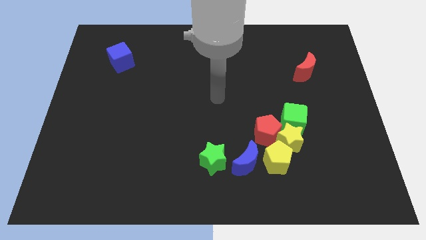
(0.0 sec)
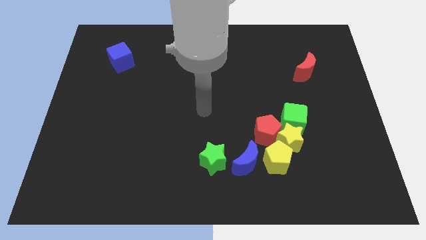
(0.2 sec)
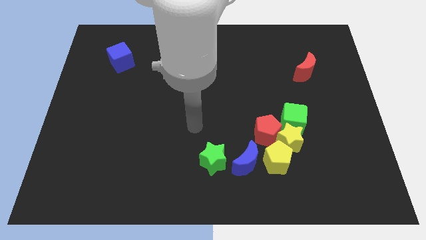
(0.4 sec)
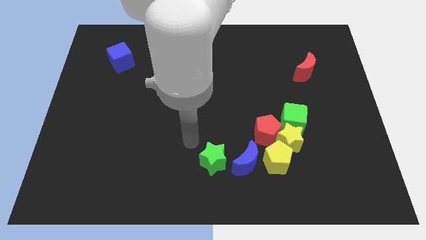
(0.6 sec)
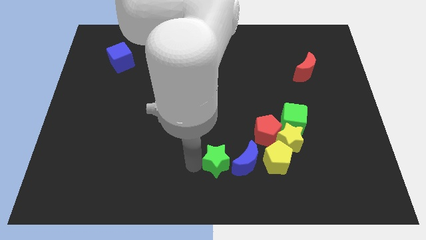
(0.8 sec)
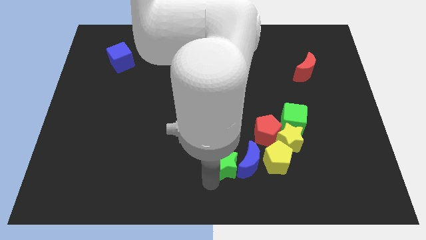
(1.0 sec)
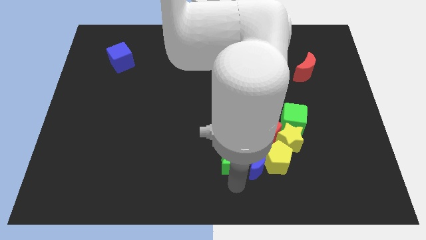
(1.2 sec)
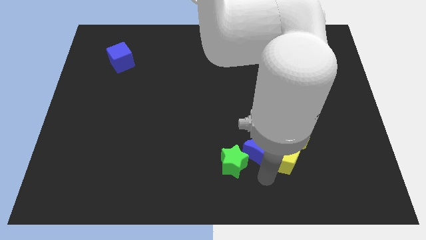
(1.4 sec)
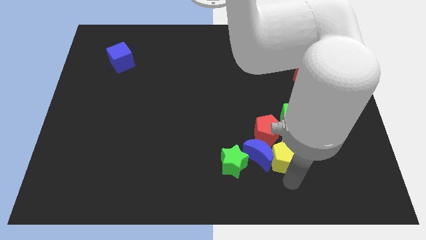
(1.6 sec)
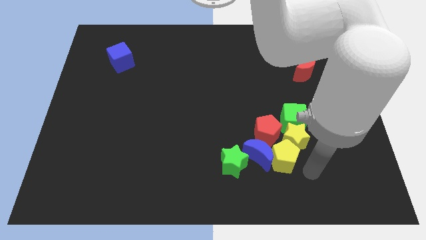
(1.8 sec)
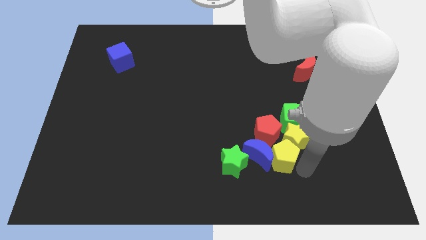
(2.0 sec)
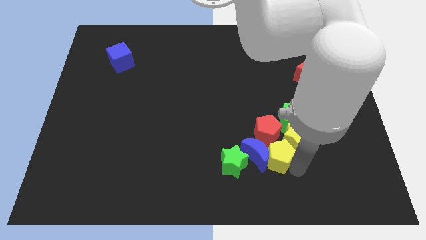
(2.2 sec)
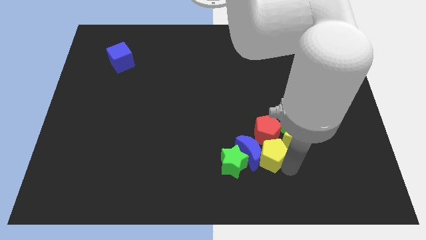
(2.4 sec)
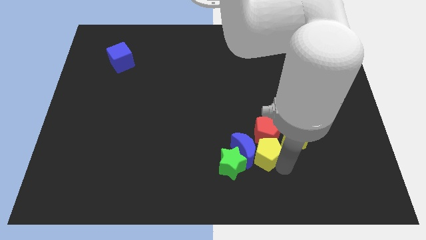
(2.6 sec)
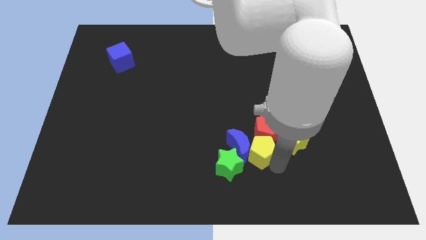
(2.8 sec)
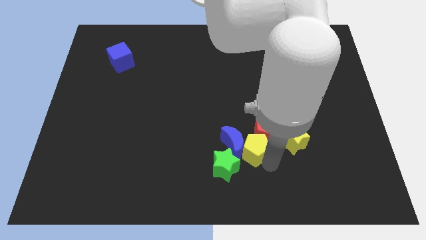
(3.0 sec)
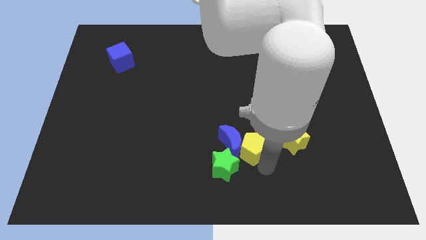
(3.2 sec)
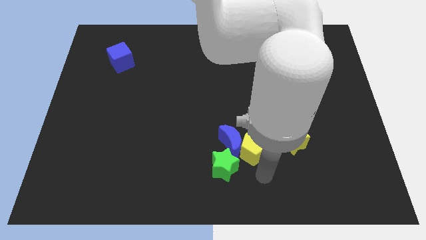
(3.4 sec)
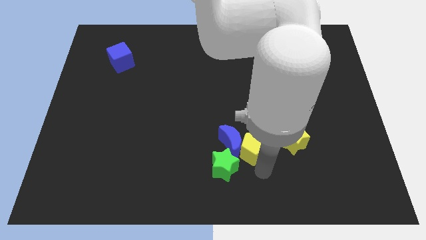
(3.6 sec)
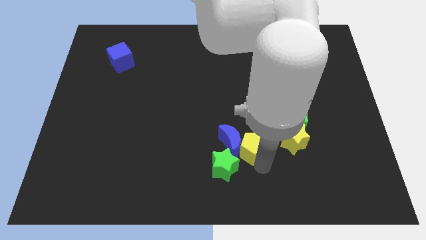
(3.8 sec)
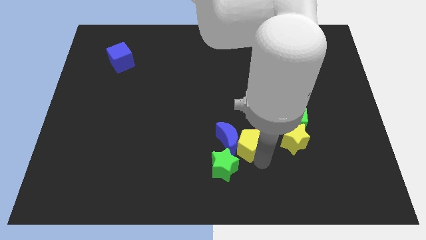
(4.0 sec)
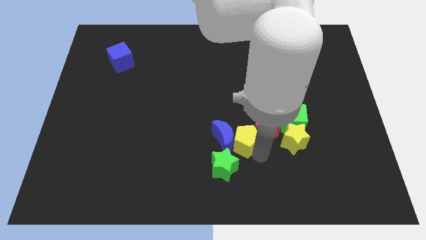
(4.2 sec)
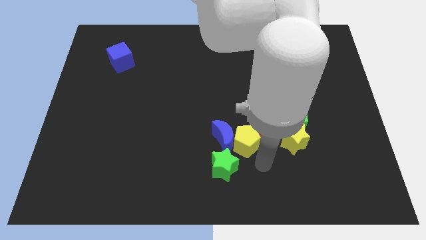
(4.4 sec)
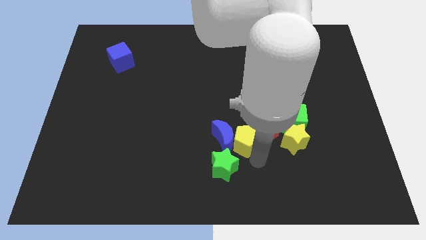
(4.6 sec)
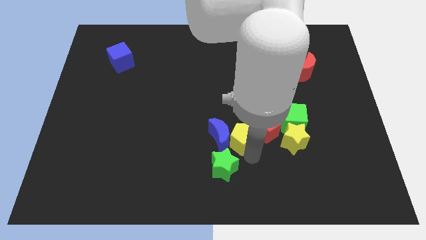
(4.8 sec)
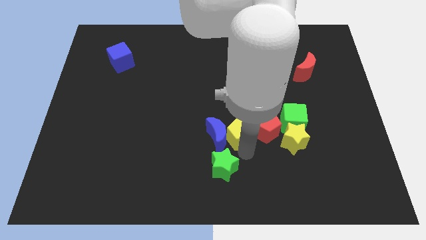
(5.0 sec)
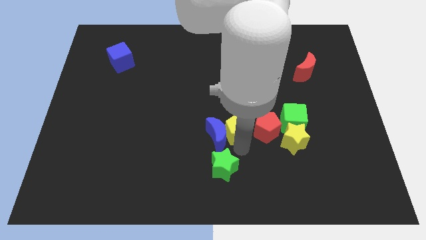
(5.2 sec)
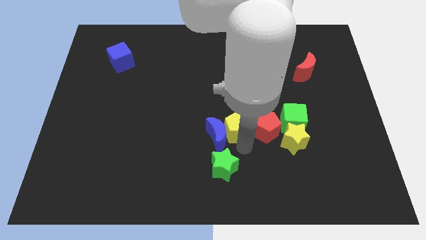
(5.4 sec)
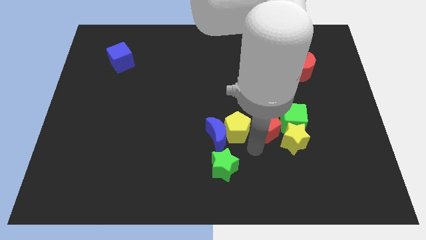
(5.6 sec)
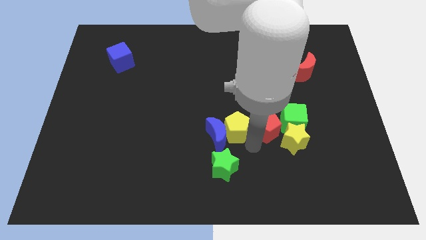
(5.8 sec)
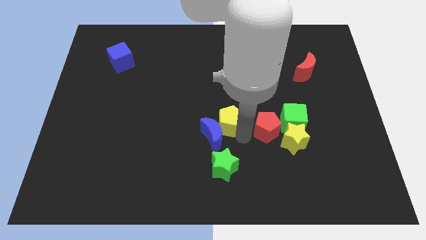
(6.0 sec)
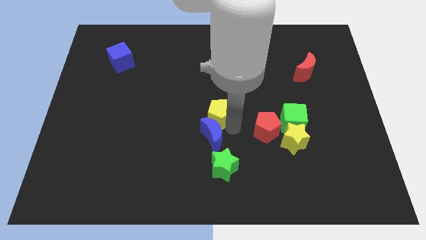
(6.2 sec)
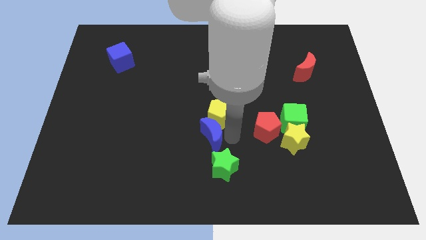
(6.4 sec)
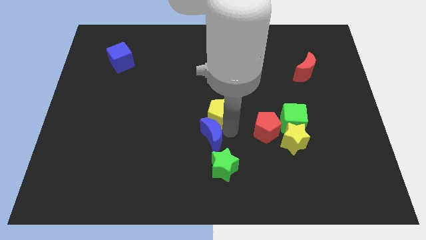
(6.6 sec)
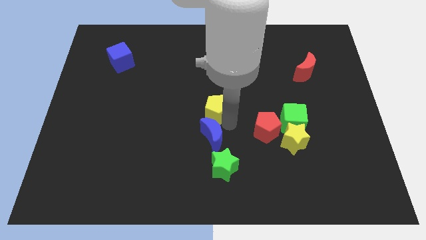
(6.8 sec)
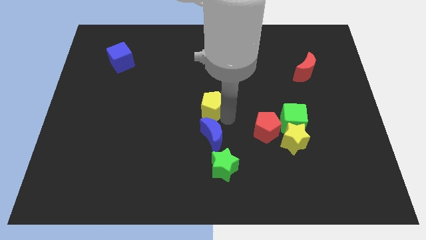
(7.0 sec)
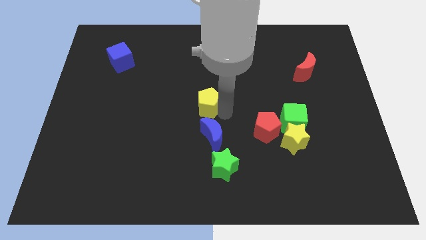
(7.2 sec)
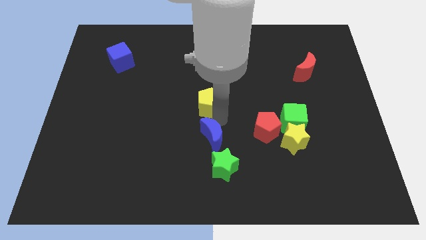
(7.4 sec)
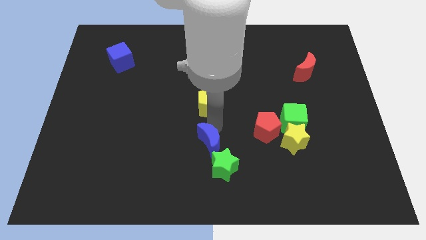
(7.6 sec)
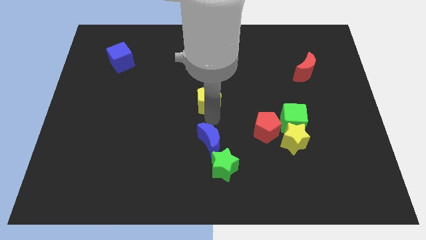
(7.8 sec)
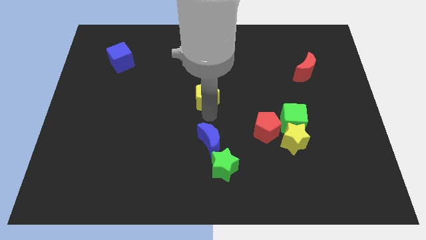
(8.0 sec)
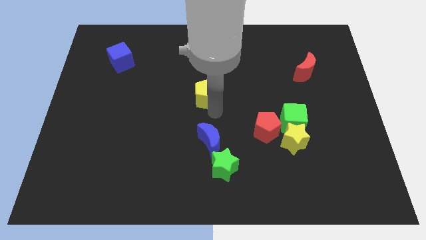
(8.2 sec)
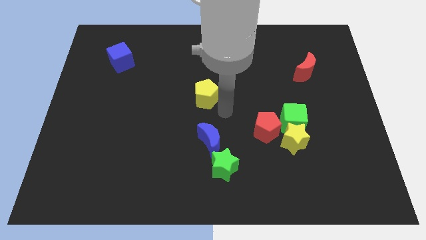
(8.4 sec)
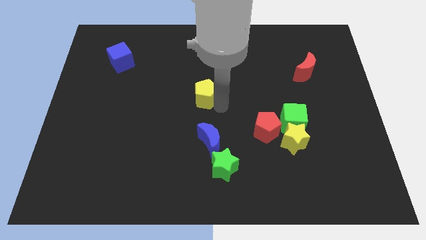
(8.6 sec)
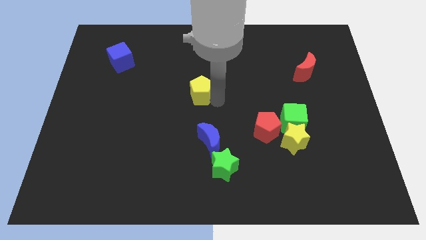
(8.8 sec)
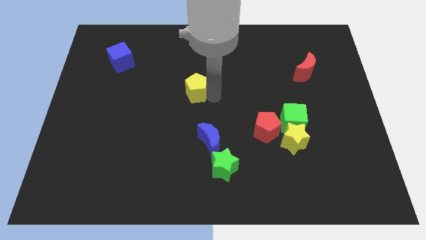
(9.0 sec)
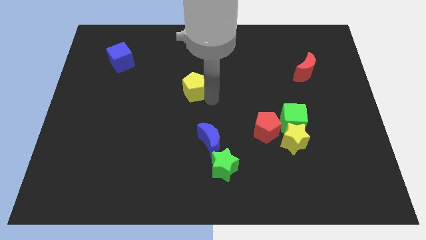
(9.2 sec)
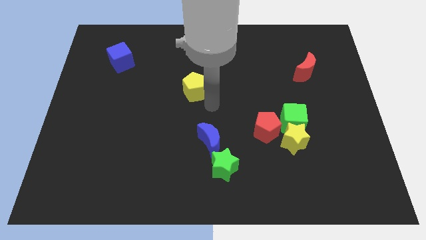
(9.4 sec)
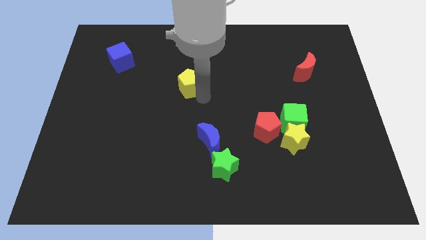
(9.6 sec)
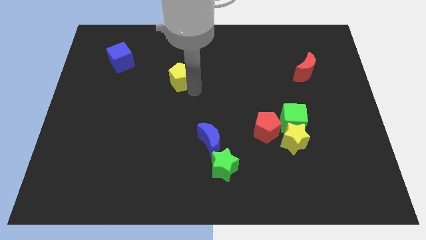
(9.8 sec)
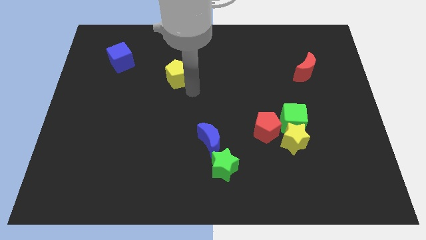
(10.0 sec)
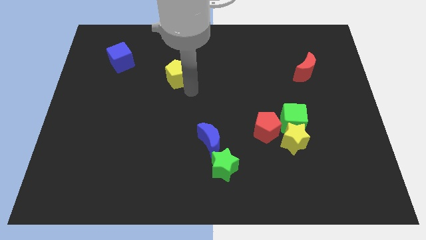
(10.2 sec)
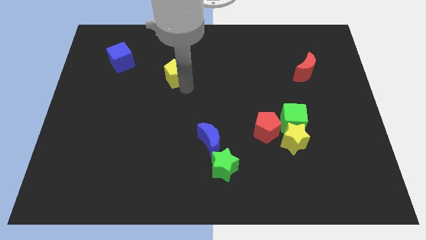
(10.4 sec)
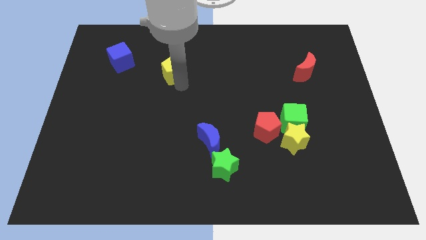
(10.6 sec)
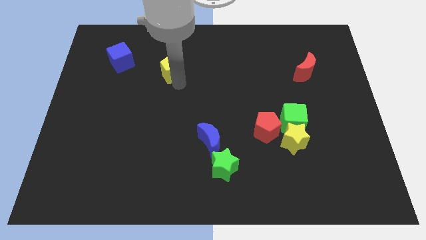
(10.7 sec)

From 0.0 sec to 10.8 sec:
slide the yellow pentagon to the right of the blue cube

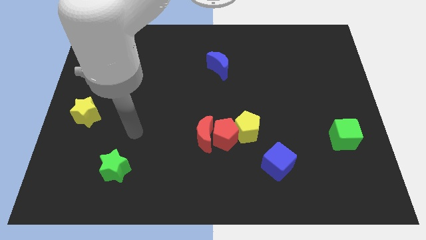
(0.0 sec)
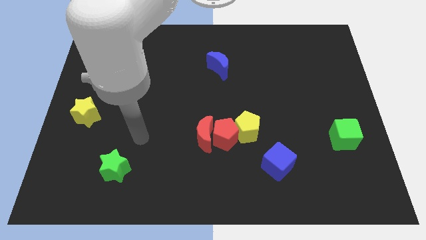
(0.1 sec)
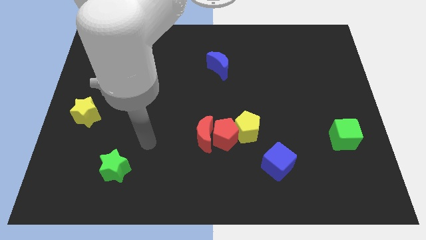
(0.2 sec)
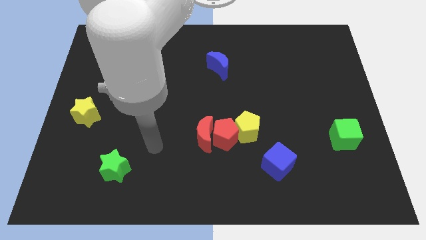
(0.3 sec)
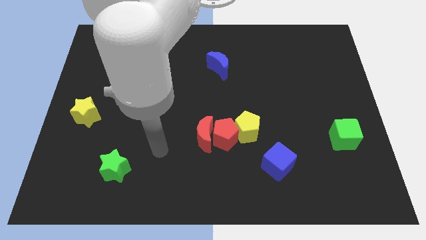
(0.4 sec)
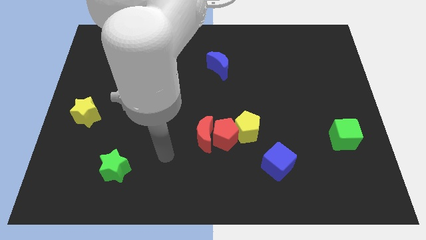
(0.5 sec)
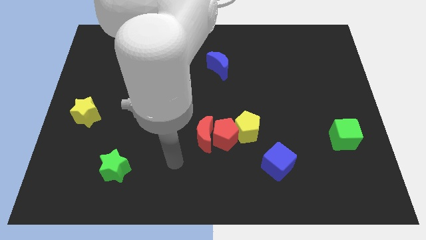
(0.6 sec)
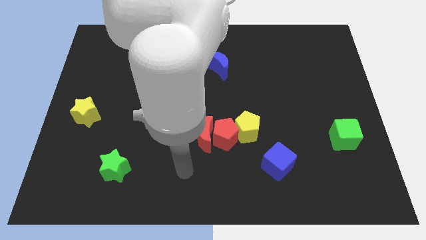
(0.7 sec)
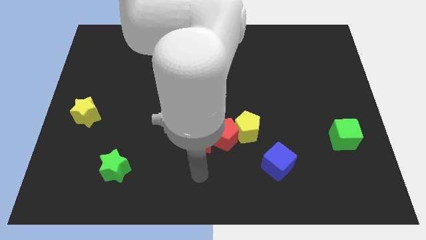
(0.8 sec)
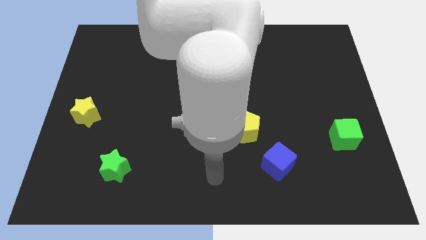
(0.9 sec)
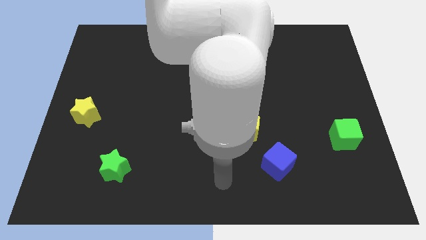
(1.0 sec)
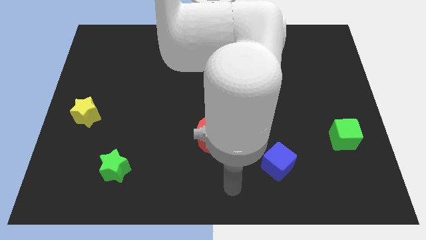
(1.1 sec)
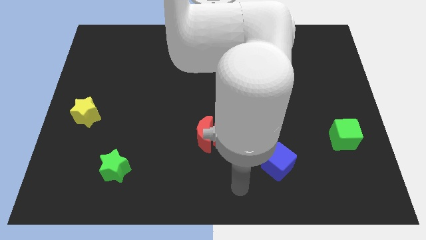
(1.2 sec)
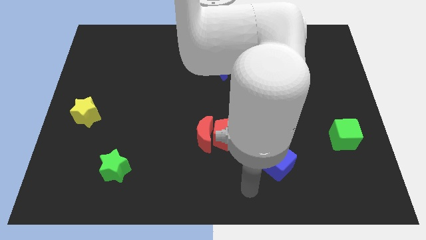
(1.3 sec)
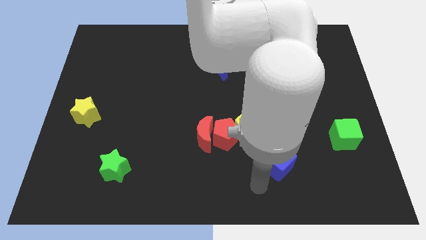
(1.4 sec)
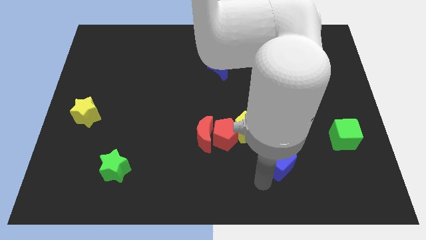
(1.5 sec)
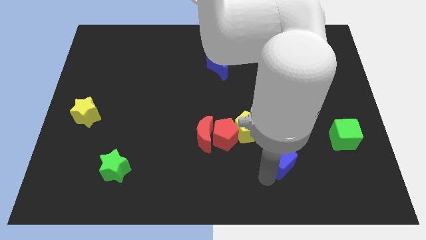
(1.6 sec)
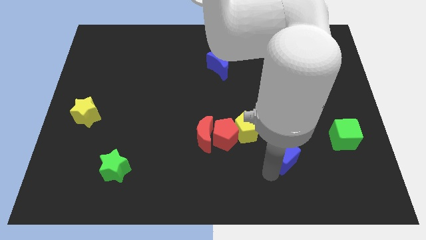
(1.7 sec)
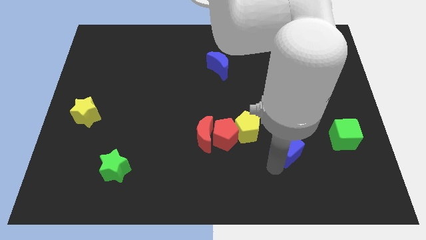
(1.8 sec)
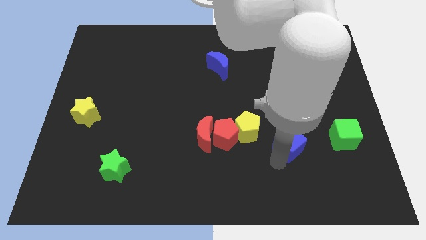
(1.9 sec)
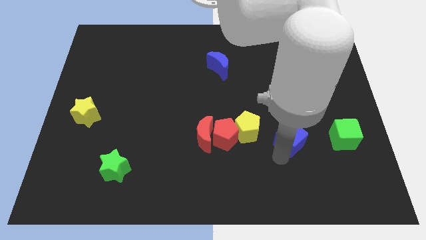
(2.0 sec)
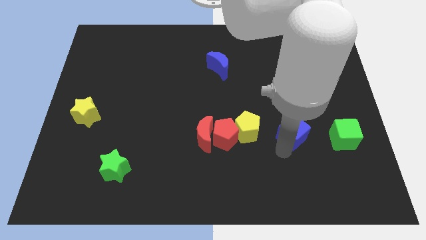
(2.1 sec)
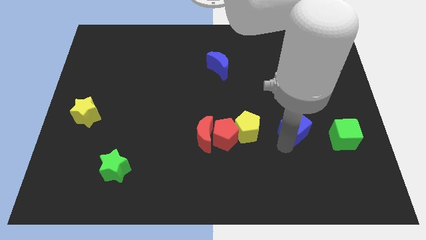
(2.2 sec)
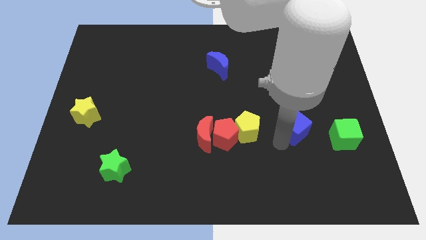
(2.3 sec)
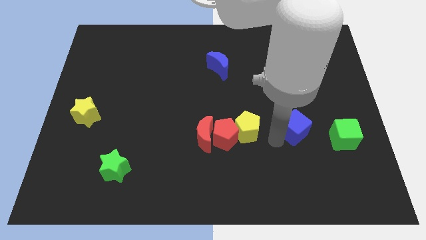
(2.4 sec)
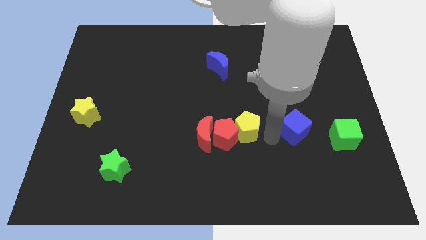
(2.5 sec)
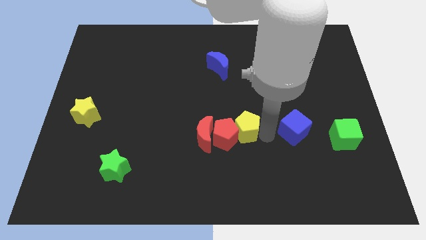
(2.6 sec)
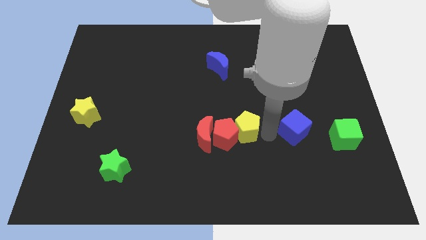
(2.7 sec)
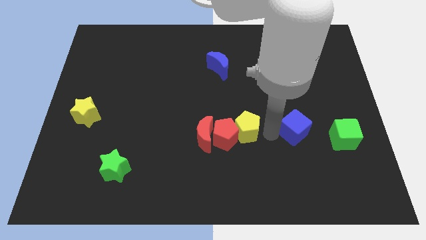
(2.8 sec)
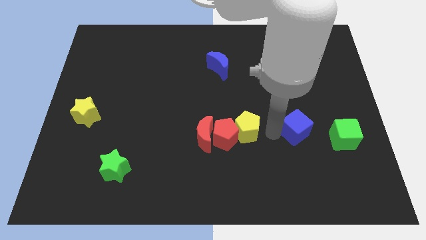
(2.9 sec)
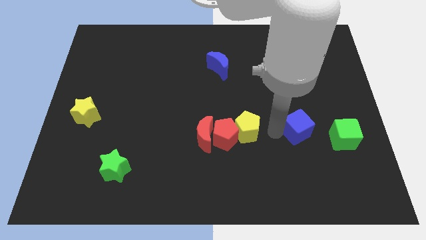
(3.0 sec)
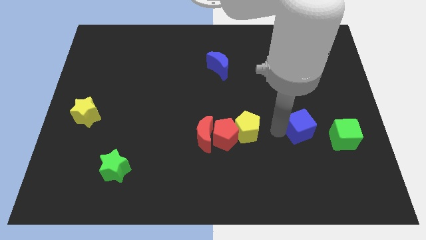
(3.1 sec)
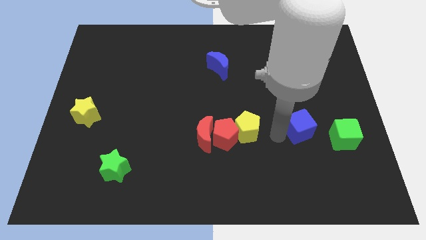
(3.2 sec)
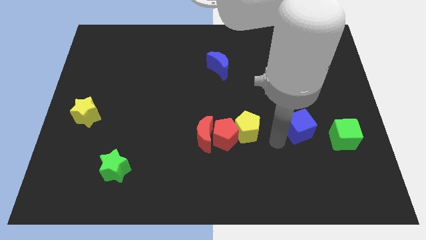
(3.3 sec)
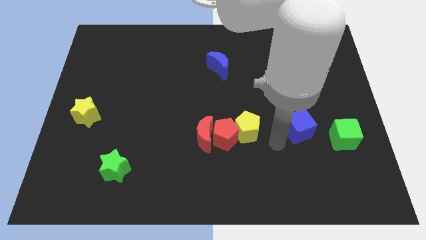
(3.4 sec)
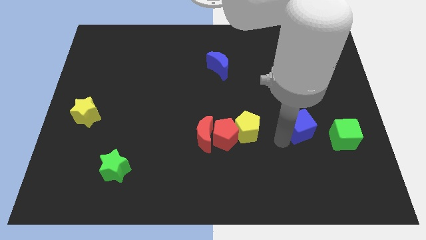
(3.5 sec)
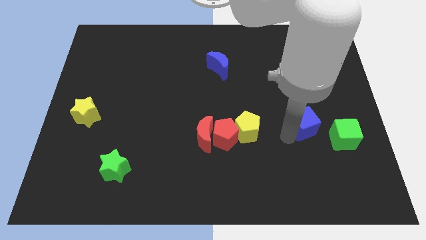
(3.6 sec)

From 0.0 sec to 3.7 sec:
move the blue cube to the top left side of the green cube
